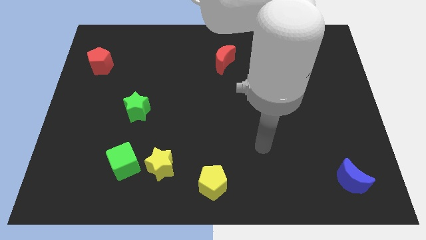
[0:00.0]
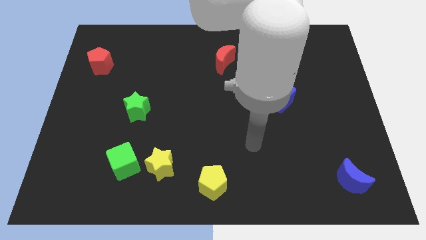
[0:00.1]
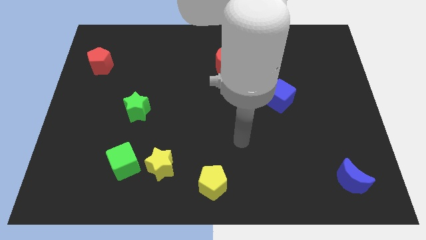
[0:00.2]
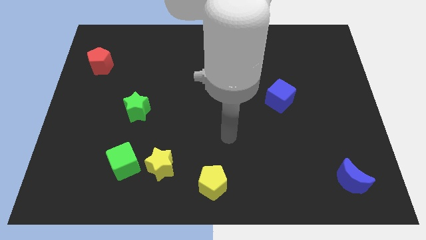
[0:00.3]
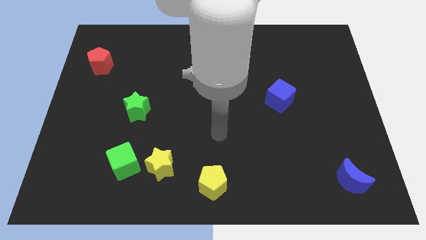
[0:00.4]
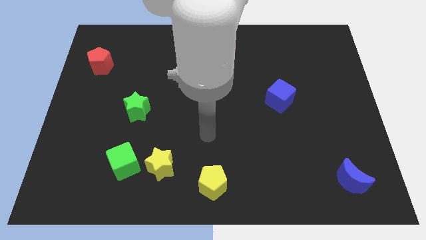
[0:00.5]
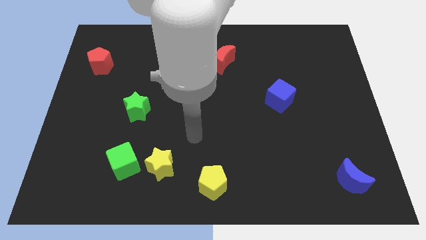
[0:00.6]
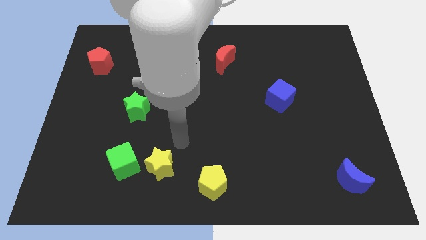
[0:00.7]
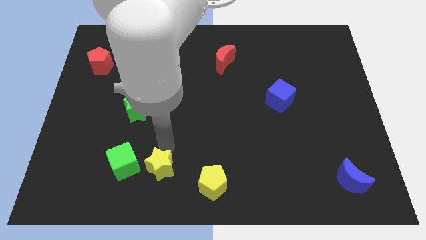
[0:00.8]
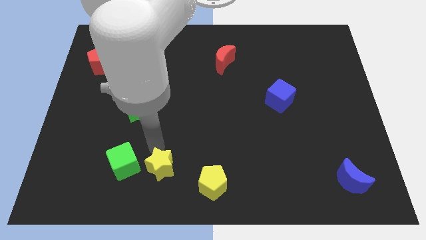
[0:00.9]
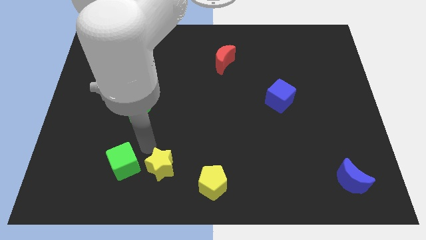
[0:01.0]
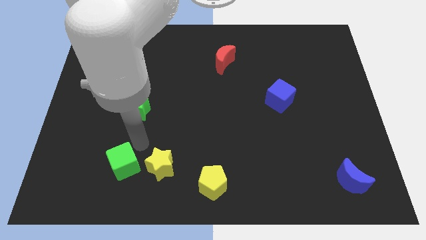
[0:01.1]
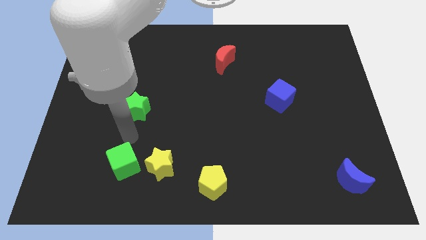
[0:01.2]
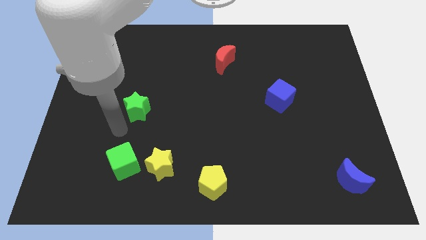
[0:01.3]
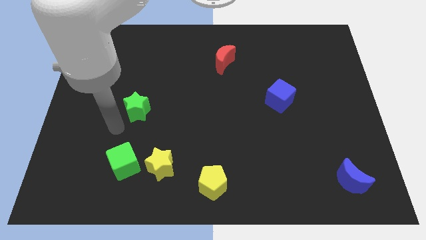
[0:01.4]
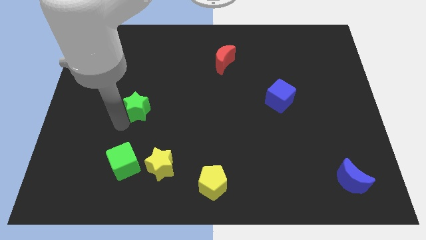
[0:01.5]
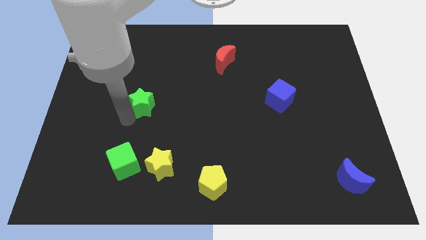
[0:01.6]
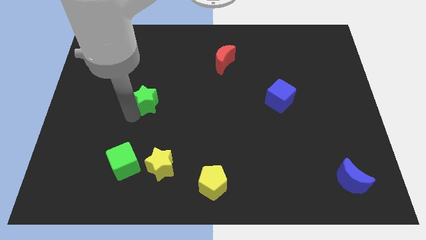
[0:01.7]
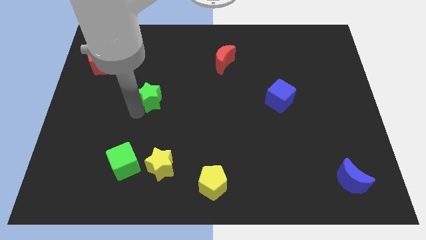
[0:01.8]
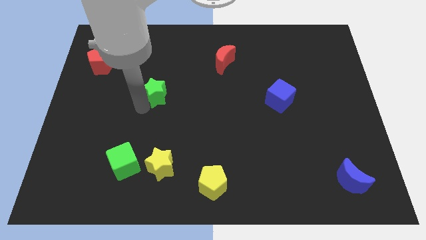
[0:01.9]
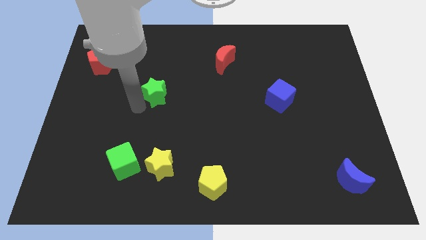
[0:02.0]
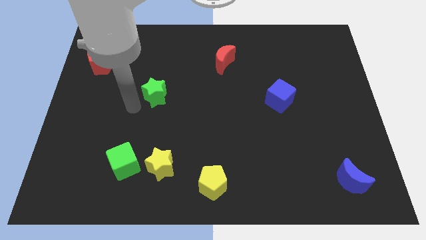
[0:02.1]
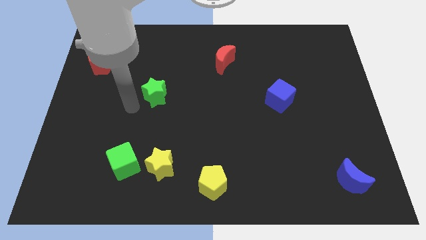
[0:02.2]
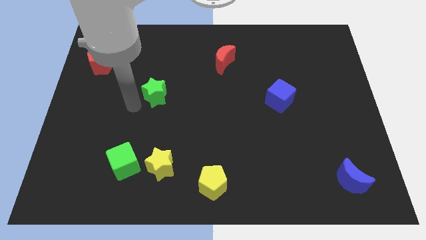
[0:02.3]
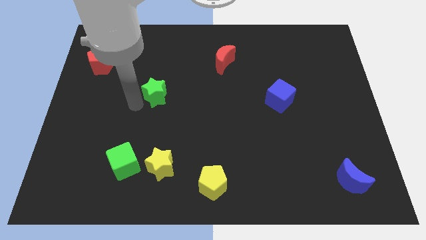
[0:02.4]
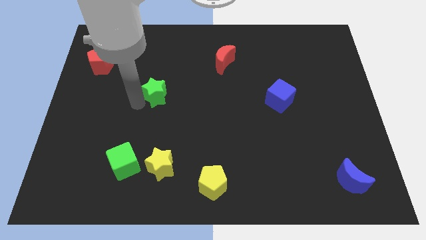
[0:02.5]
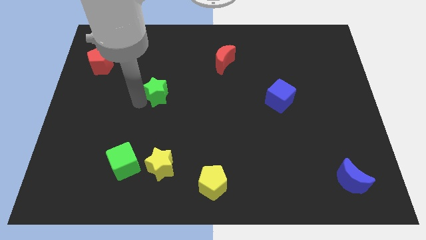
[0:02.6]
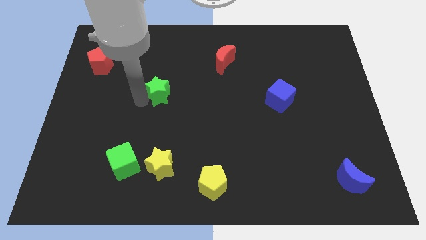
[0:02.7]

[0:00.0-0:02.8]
move the green star a little upwards and right diagonally

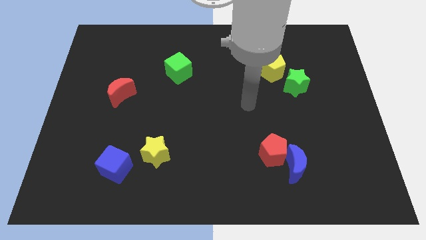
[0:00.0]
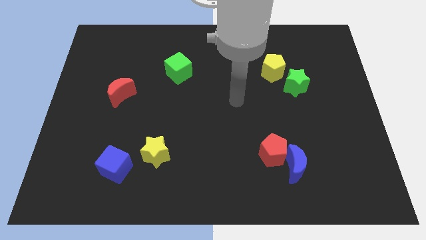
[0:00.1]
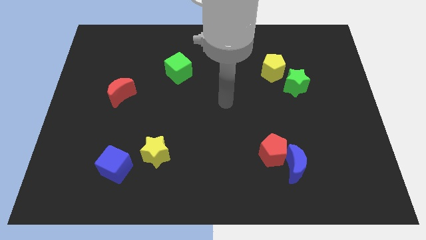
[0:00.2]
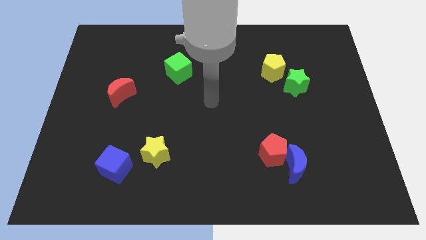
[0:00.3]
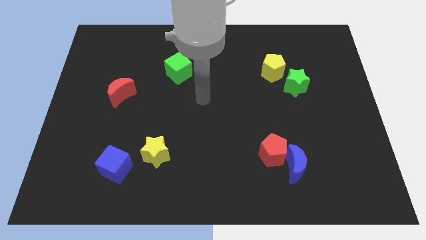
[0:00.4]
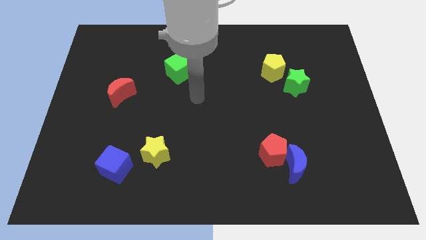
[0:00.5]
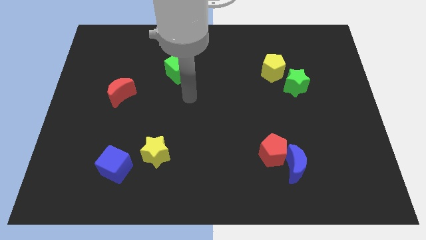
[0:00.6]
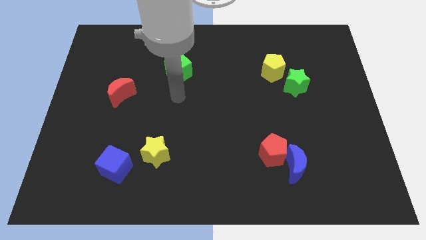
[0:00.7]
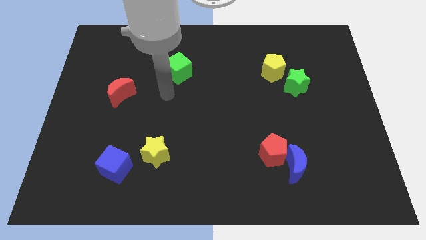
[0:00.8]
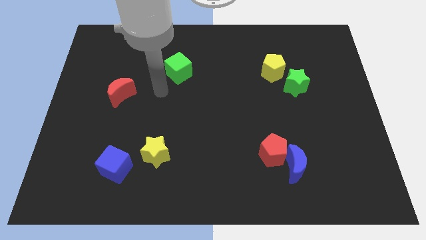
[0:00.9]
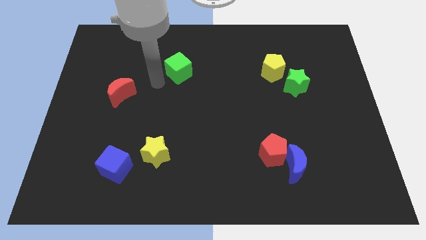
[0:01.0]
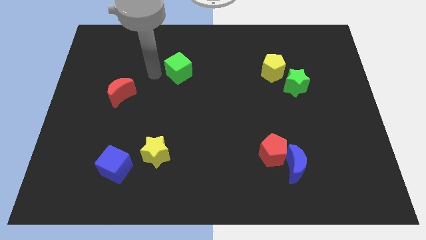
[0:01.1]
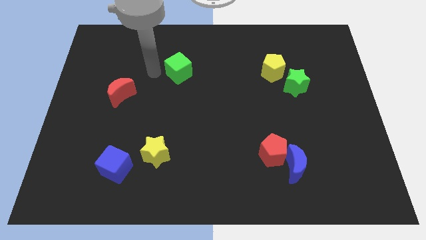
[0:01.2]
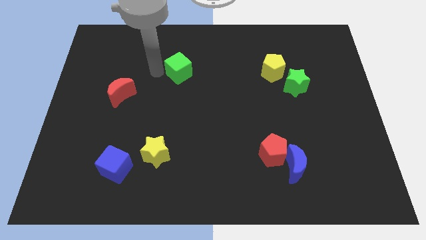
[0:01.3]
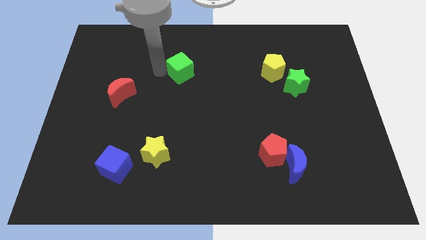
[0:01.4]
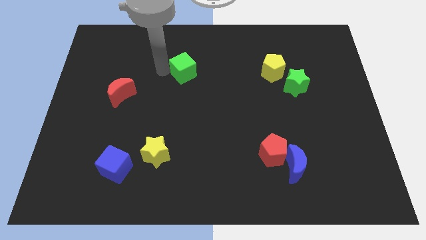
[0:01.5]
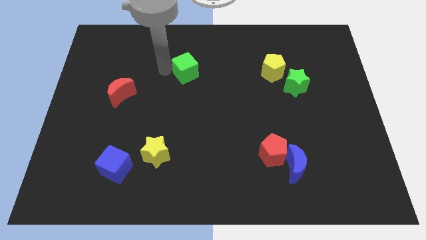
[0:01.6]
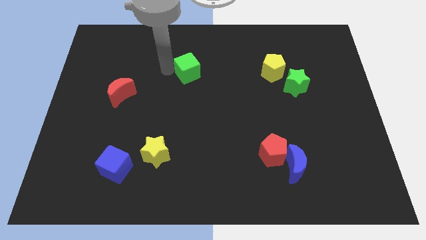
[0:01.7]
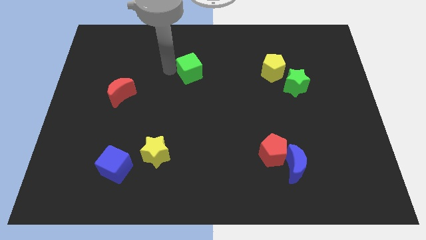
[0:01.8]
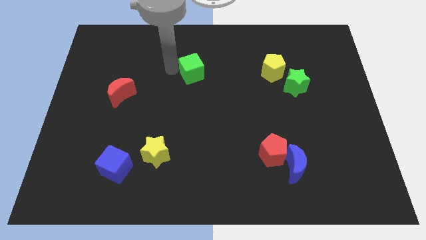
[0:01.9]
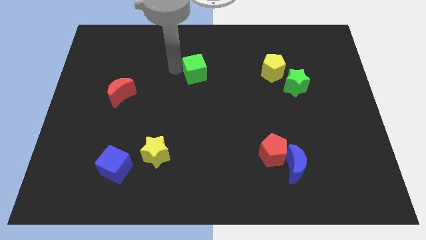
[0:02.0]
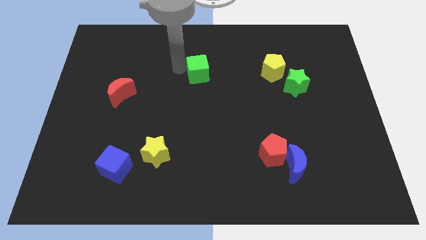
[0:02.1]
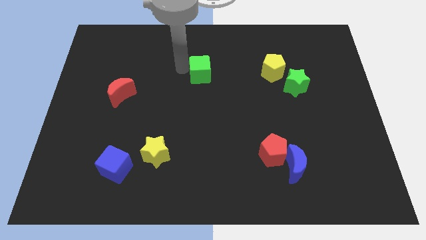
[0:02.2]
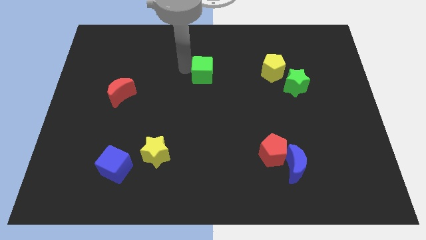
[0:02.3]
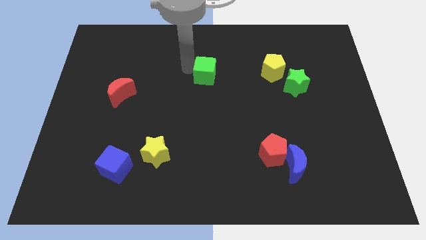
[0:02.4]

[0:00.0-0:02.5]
push the green cube right a little bit

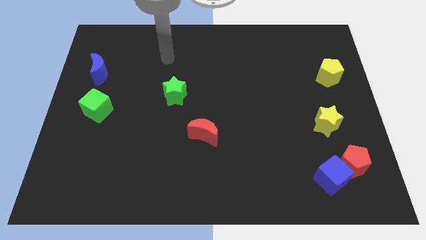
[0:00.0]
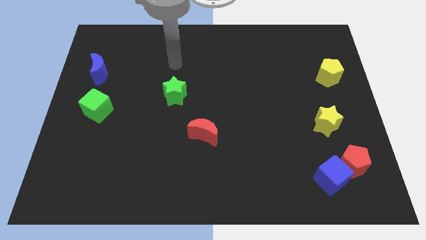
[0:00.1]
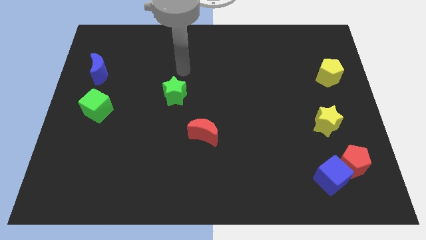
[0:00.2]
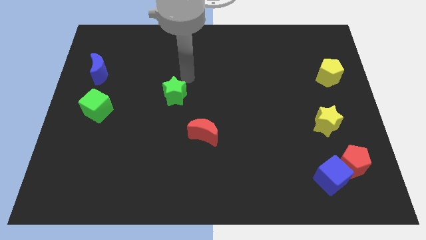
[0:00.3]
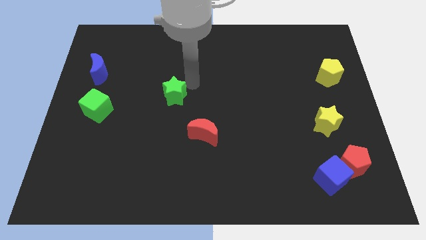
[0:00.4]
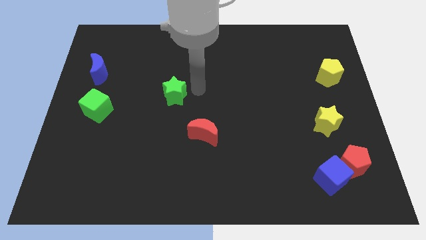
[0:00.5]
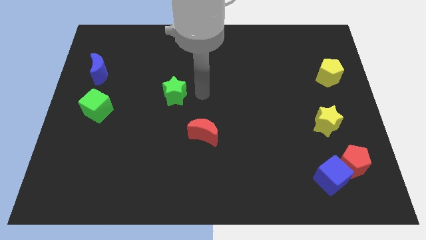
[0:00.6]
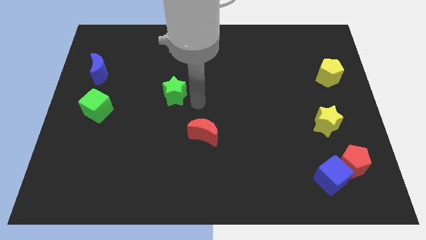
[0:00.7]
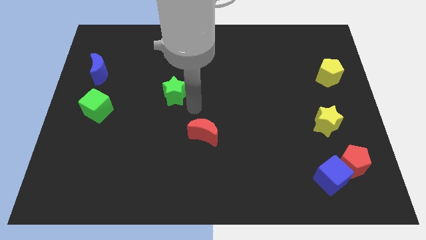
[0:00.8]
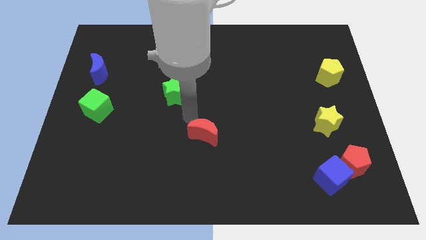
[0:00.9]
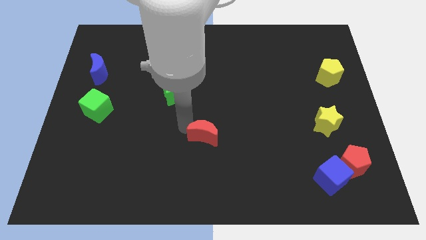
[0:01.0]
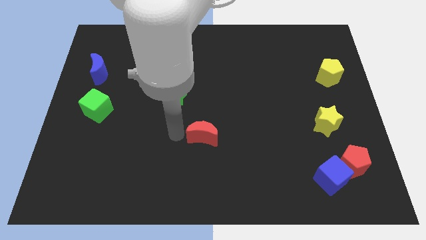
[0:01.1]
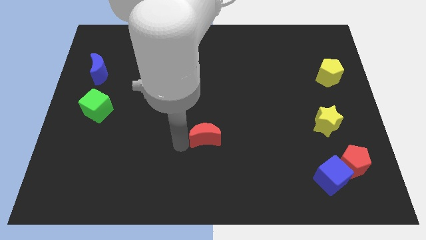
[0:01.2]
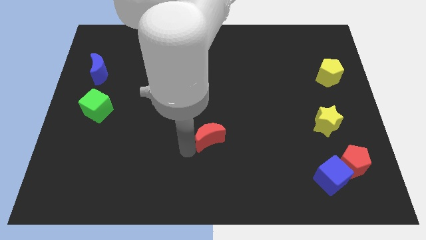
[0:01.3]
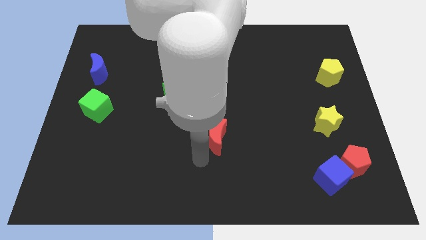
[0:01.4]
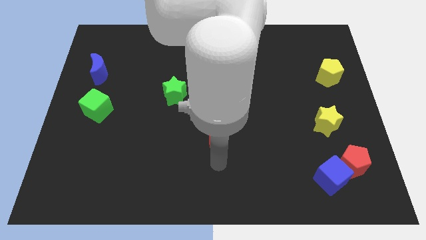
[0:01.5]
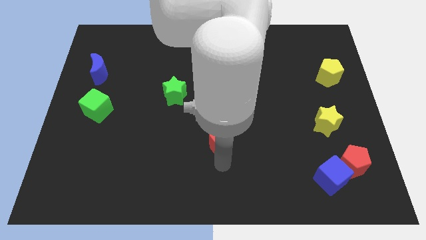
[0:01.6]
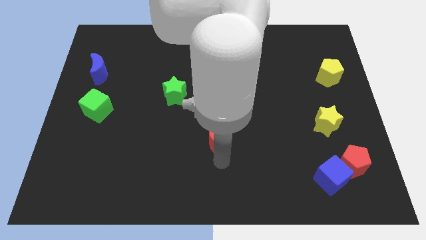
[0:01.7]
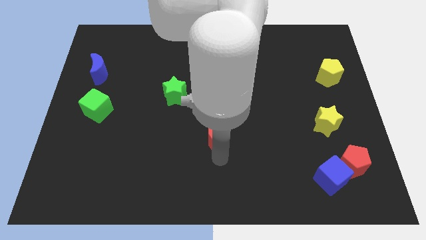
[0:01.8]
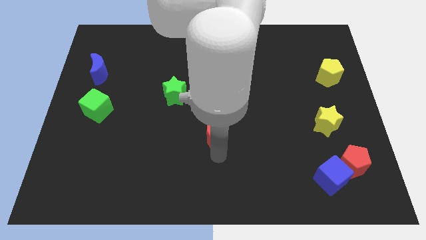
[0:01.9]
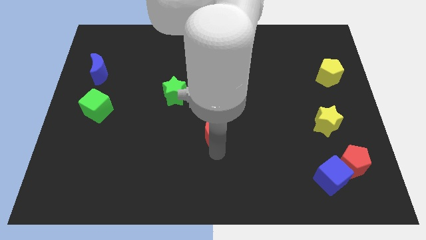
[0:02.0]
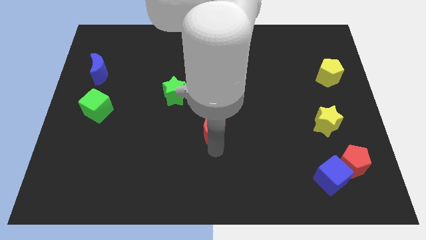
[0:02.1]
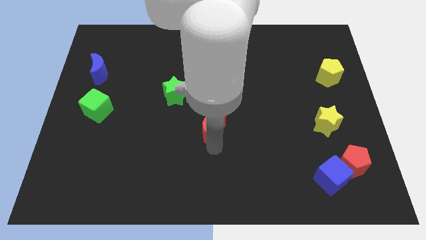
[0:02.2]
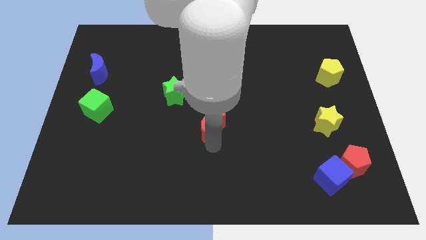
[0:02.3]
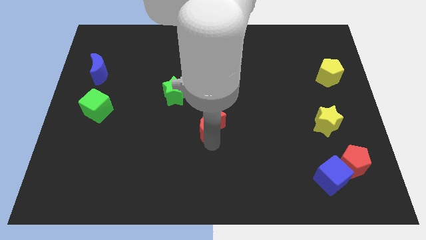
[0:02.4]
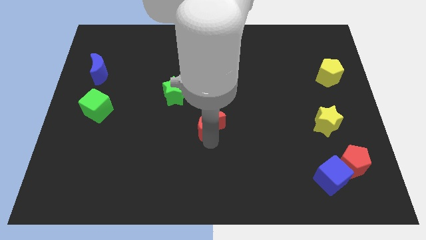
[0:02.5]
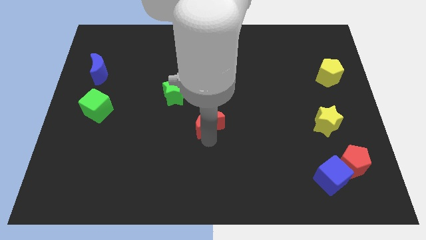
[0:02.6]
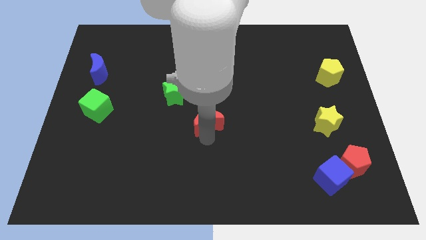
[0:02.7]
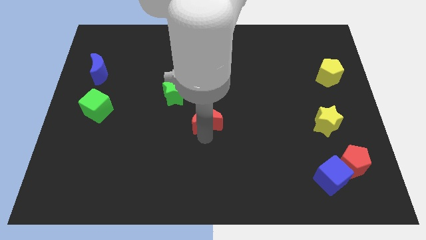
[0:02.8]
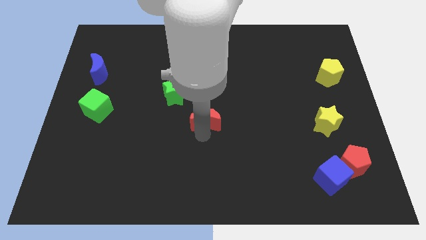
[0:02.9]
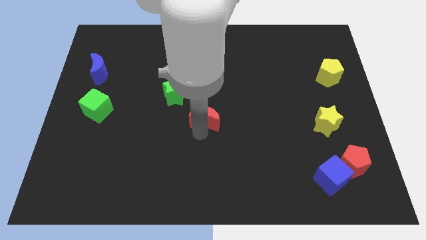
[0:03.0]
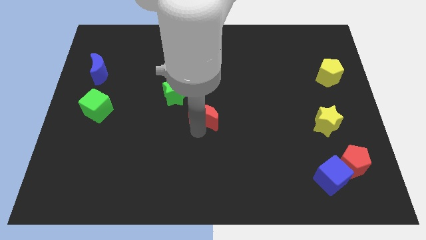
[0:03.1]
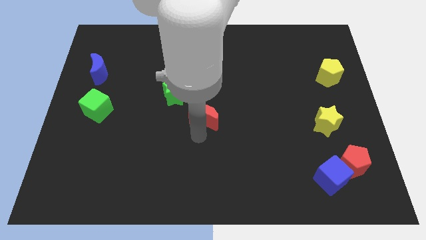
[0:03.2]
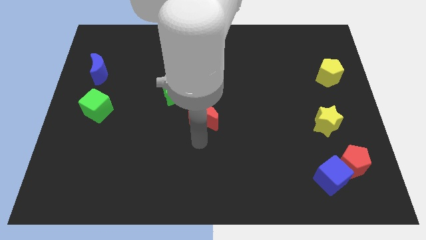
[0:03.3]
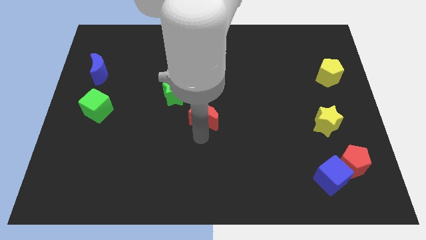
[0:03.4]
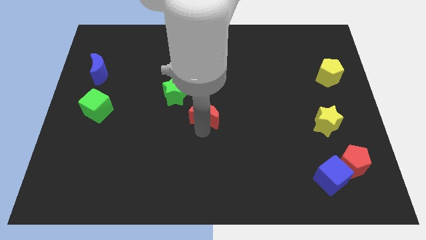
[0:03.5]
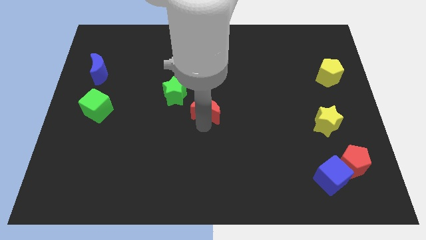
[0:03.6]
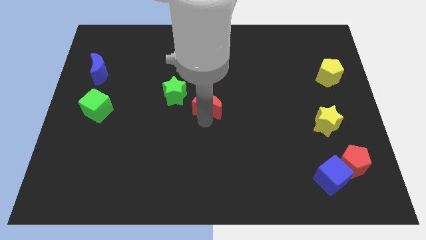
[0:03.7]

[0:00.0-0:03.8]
move the red moon slightly upwards
